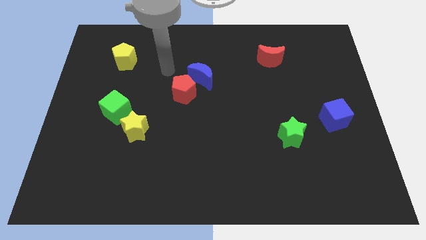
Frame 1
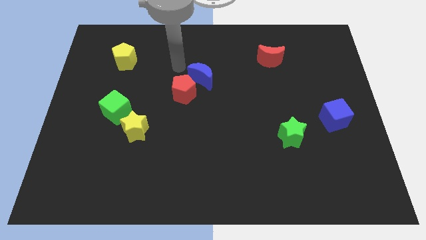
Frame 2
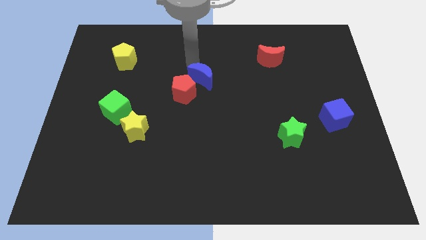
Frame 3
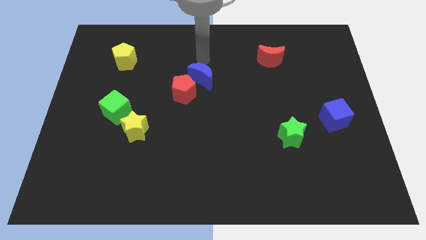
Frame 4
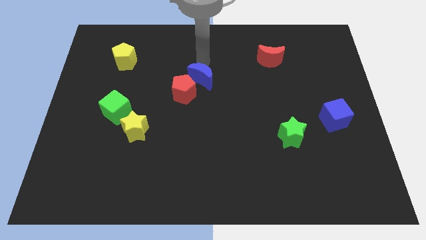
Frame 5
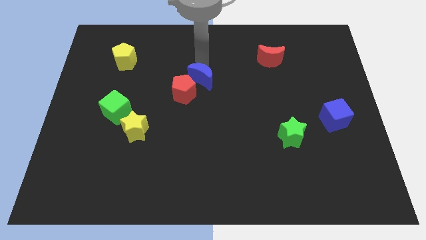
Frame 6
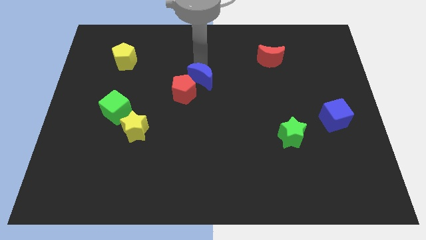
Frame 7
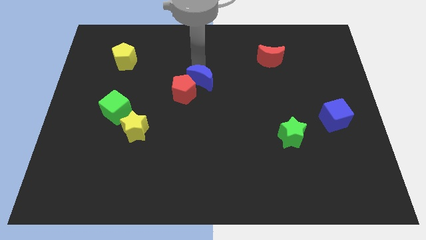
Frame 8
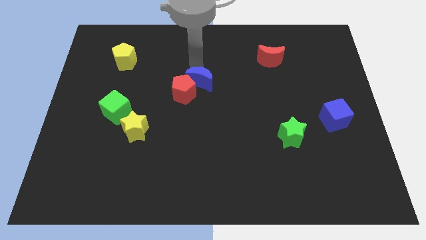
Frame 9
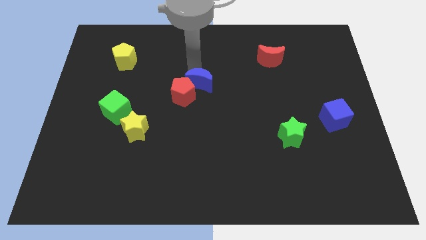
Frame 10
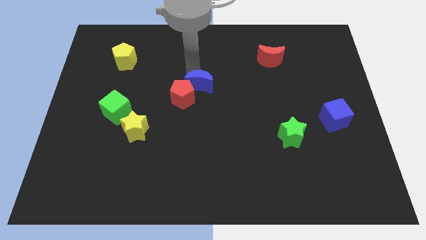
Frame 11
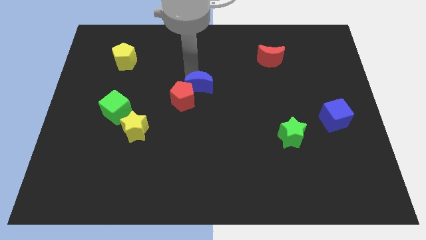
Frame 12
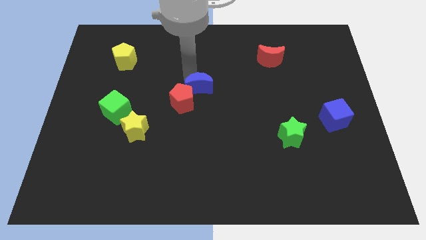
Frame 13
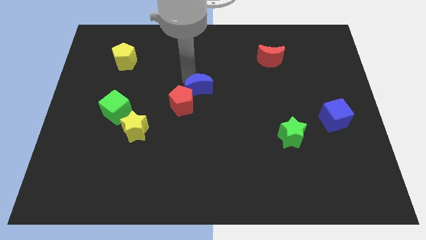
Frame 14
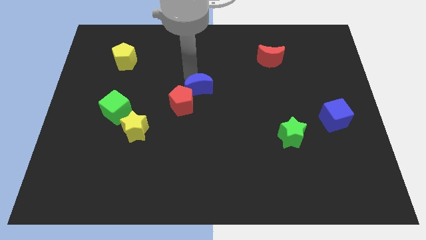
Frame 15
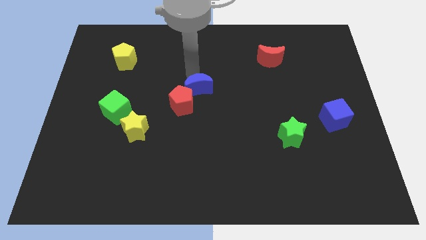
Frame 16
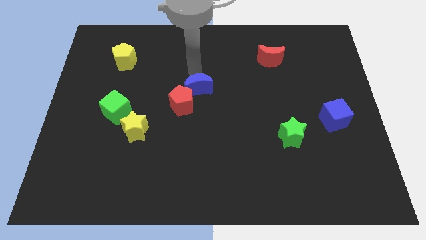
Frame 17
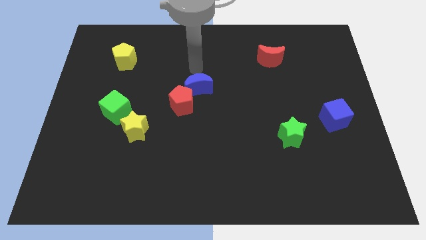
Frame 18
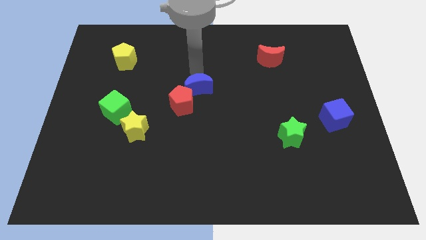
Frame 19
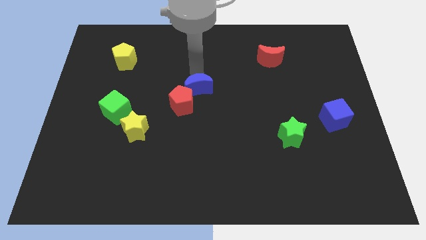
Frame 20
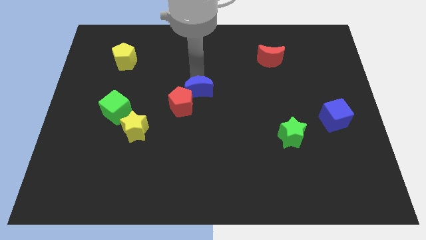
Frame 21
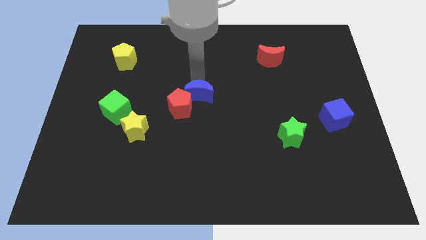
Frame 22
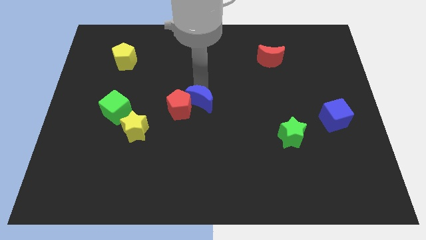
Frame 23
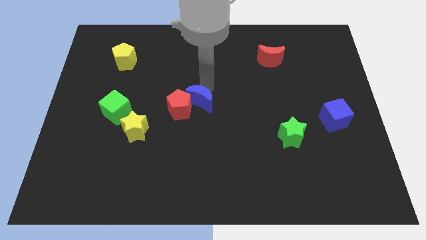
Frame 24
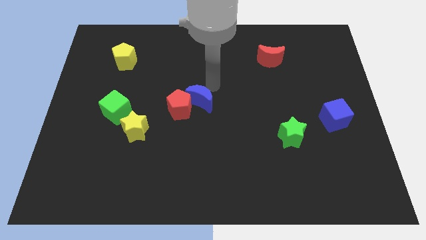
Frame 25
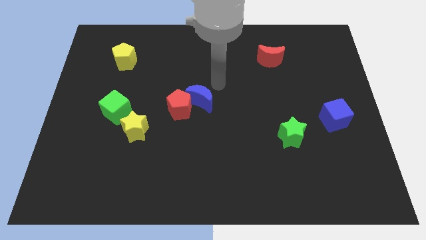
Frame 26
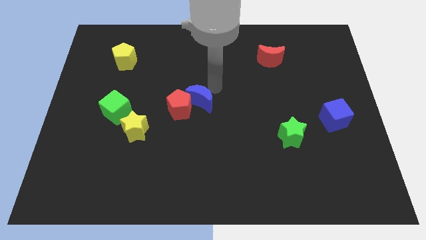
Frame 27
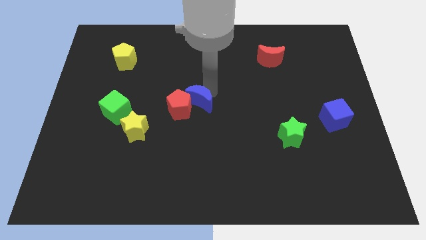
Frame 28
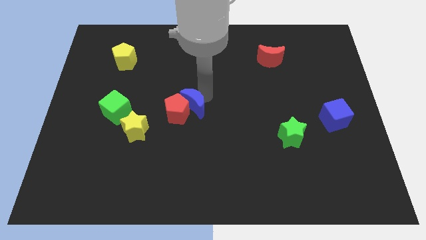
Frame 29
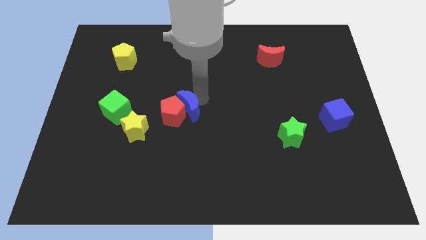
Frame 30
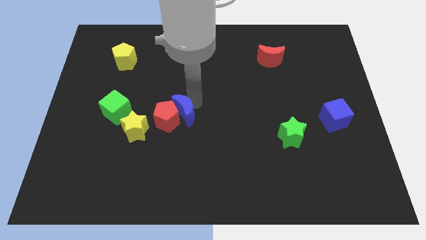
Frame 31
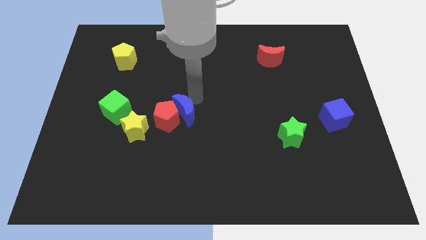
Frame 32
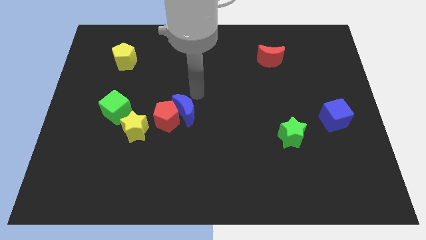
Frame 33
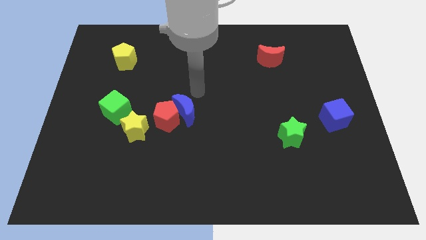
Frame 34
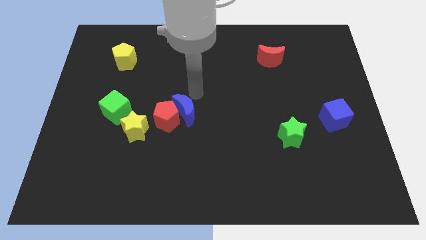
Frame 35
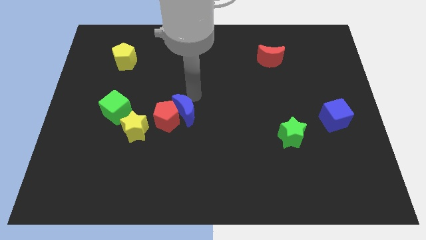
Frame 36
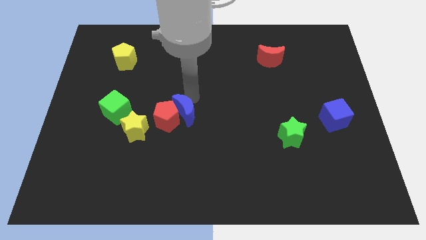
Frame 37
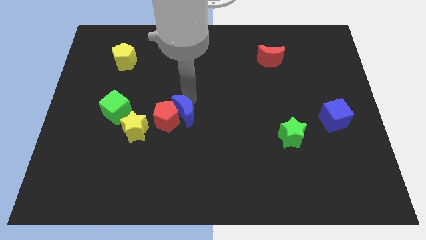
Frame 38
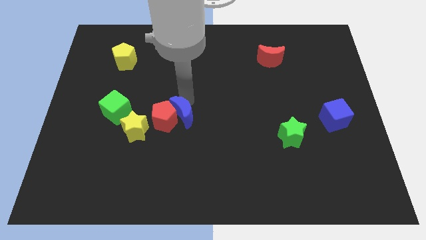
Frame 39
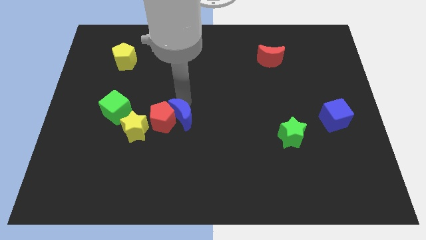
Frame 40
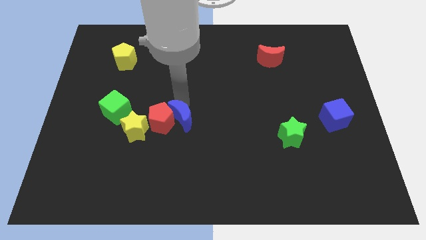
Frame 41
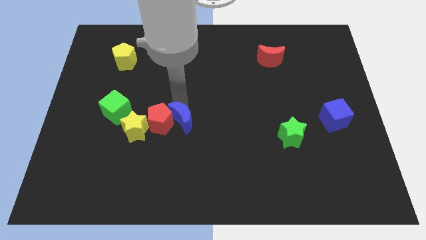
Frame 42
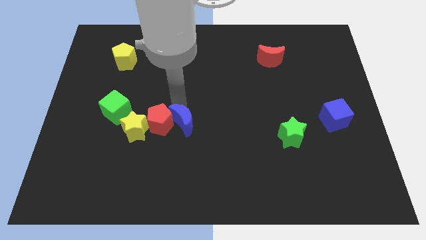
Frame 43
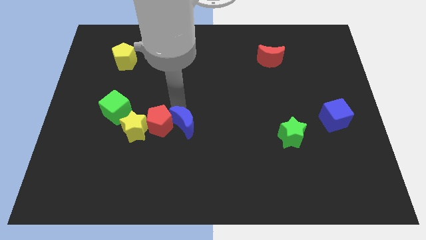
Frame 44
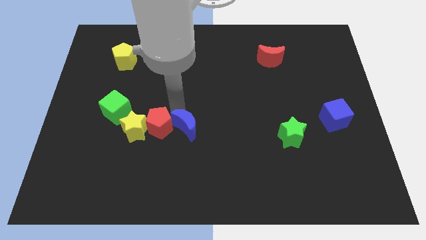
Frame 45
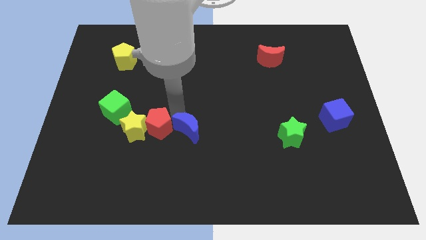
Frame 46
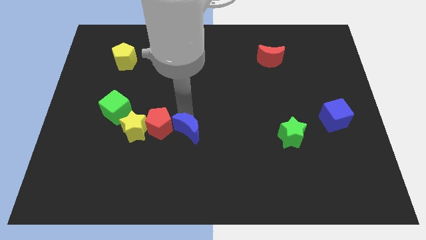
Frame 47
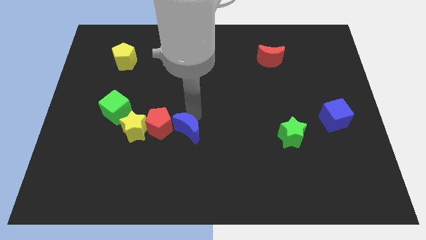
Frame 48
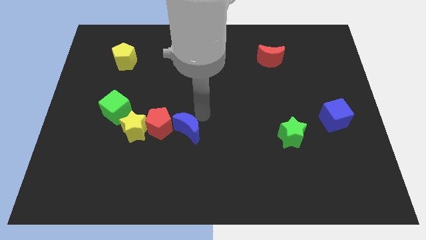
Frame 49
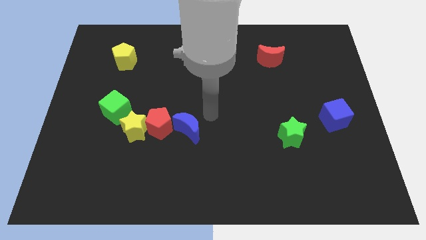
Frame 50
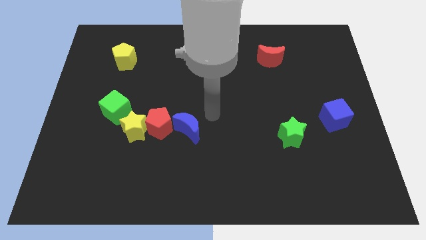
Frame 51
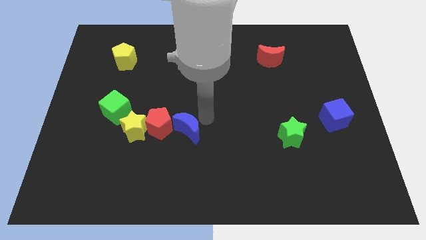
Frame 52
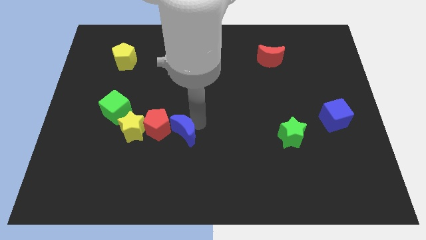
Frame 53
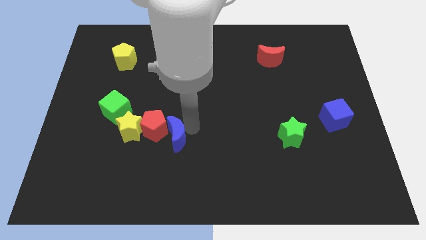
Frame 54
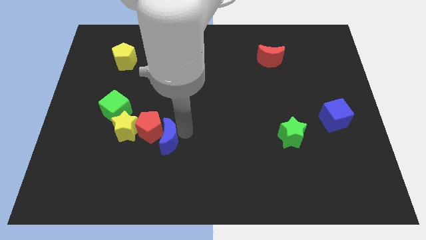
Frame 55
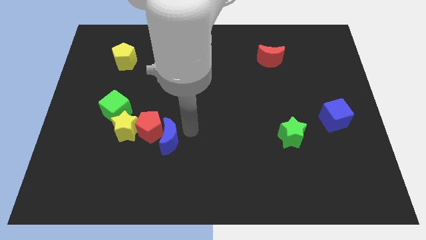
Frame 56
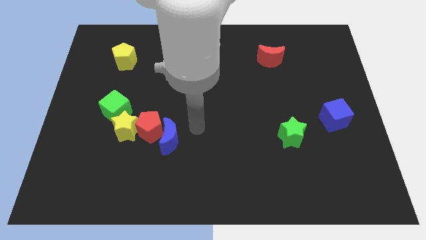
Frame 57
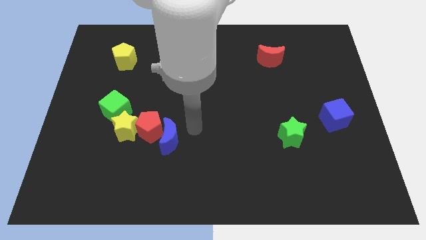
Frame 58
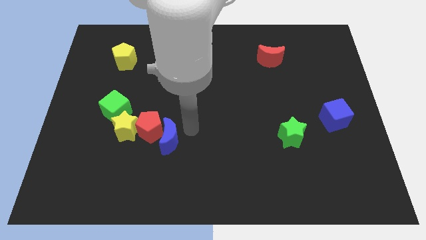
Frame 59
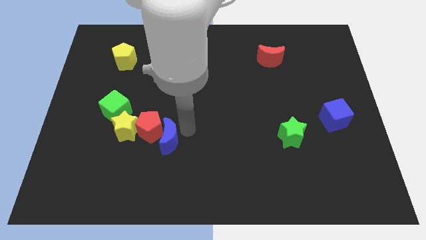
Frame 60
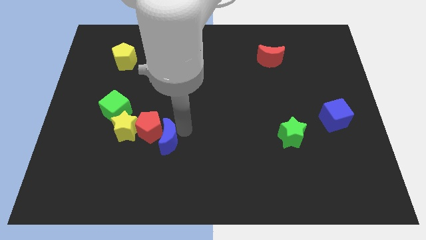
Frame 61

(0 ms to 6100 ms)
slide the blue moon diagonally down and to the right of the yellow star

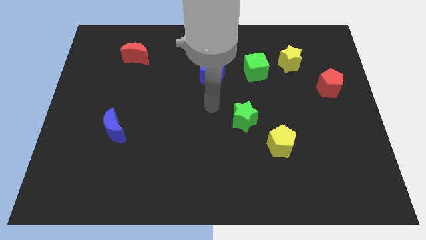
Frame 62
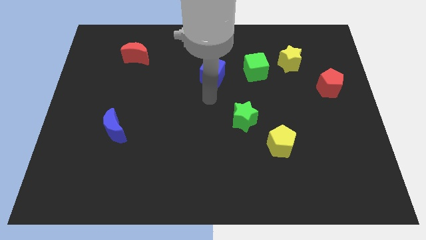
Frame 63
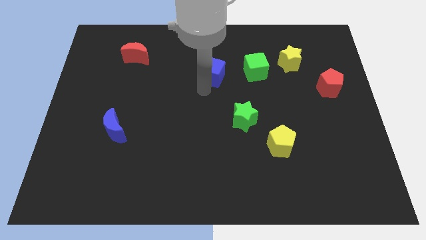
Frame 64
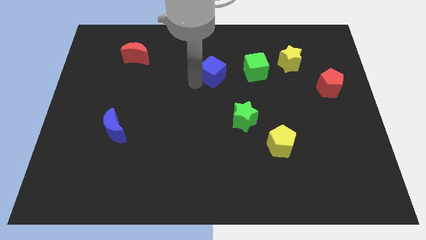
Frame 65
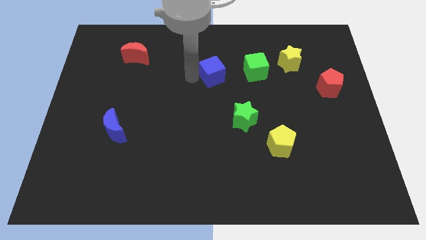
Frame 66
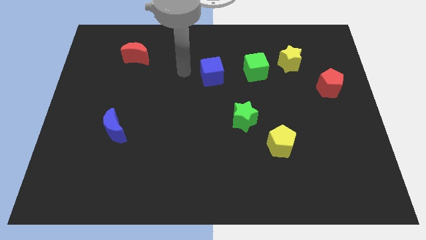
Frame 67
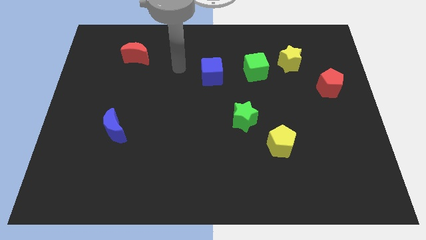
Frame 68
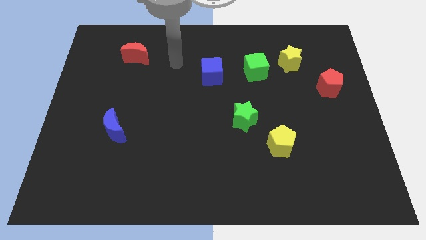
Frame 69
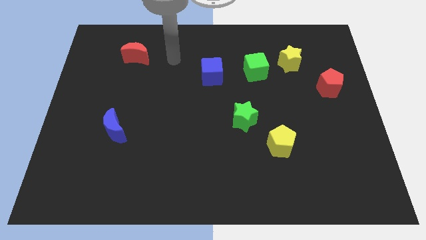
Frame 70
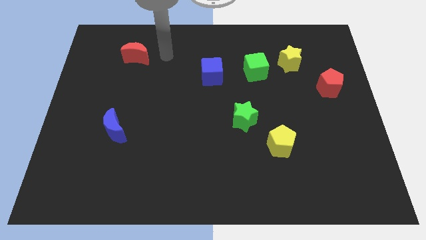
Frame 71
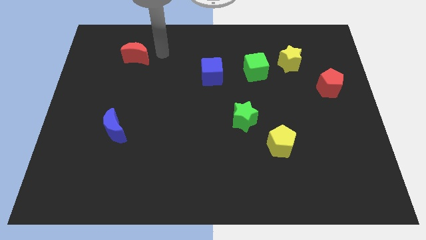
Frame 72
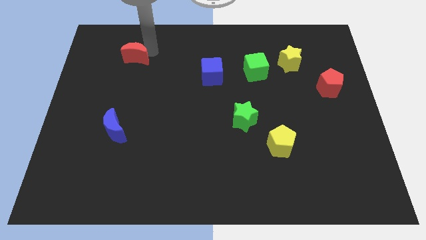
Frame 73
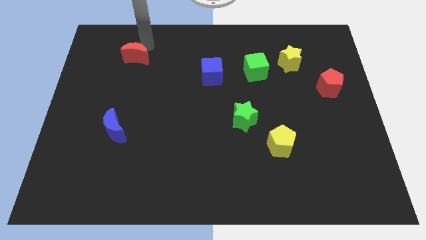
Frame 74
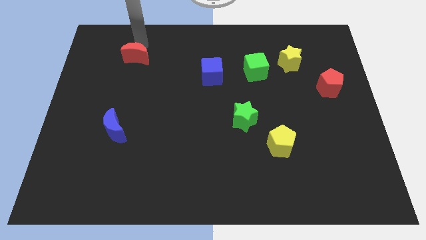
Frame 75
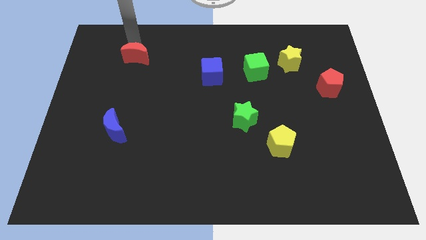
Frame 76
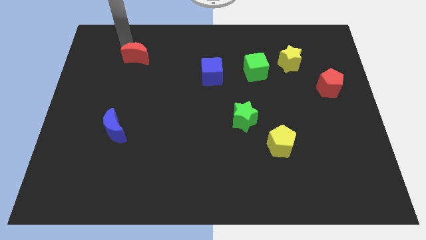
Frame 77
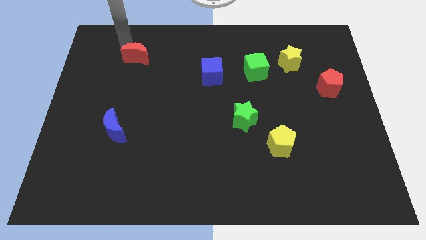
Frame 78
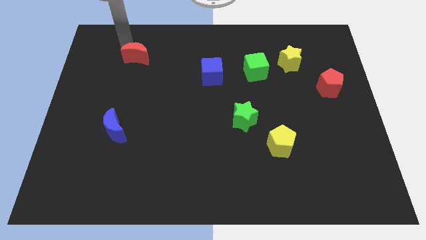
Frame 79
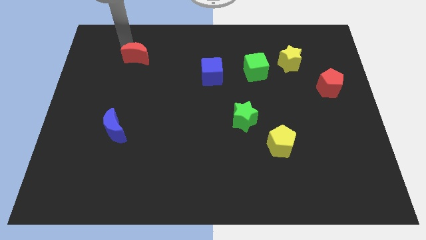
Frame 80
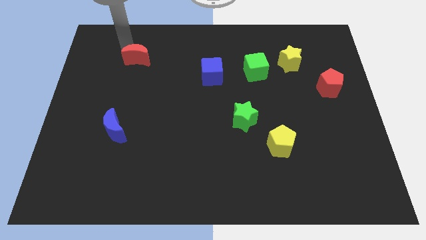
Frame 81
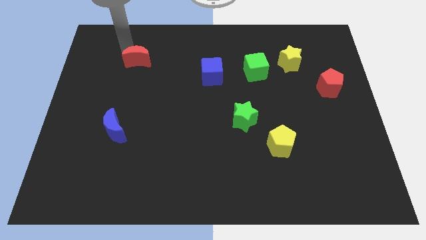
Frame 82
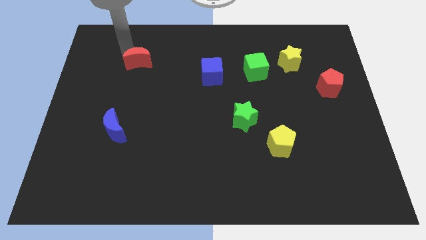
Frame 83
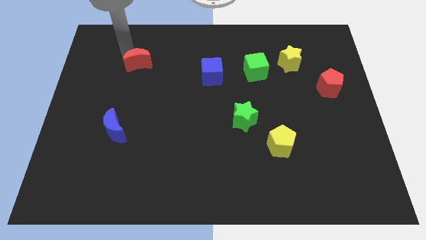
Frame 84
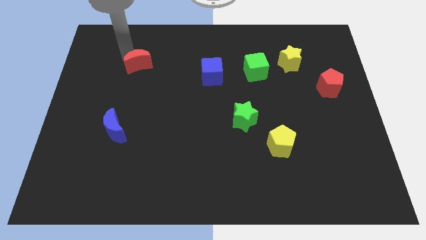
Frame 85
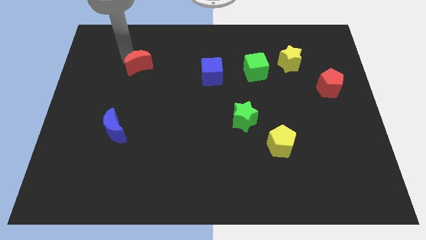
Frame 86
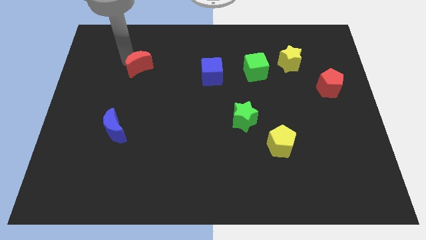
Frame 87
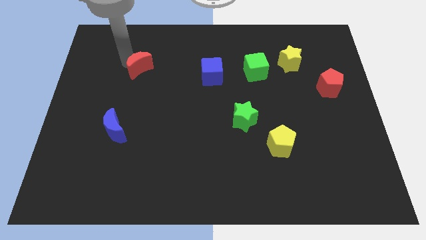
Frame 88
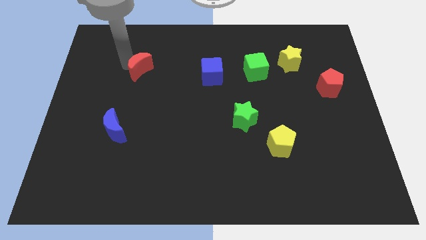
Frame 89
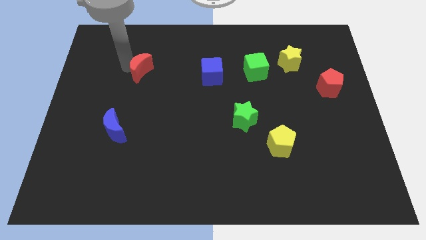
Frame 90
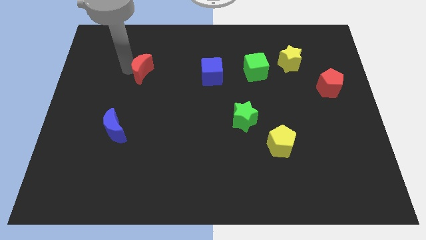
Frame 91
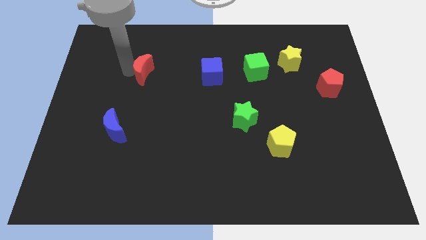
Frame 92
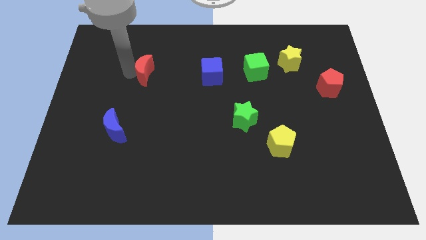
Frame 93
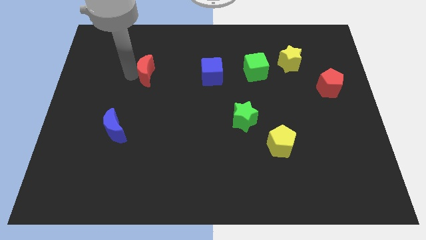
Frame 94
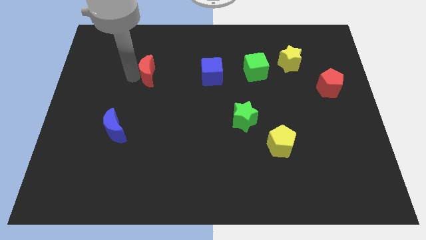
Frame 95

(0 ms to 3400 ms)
move the red moon left of the blue cube
